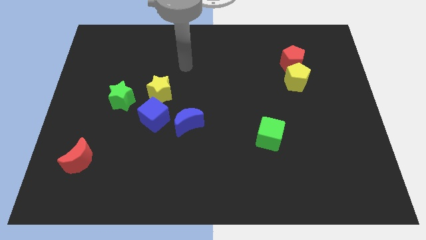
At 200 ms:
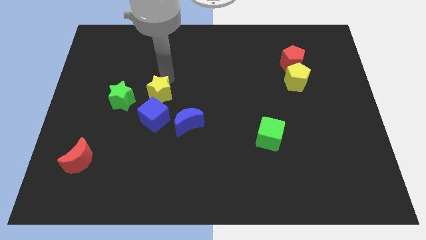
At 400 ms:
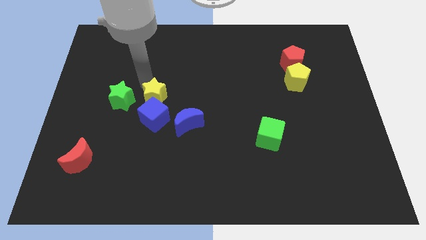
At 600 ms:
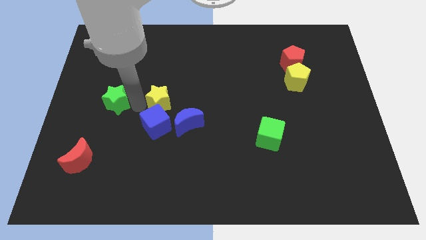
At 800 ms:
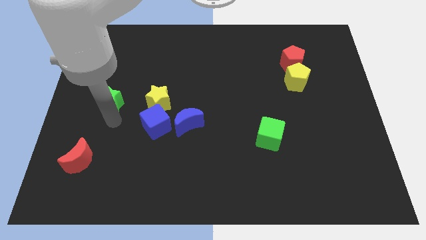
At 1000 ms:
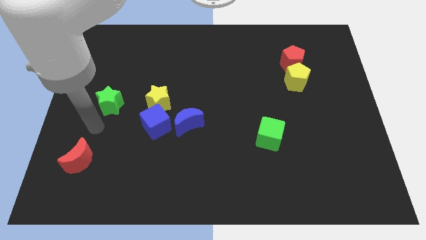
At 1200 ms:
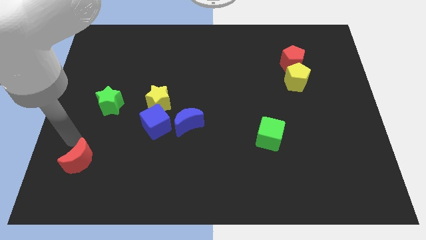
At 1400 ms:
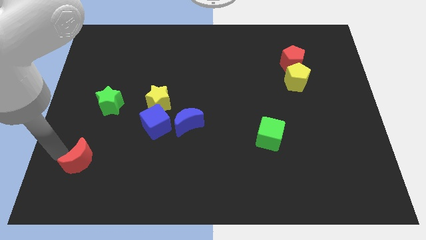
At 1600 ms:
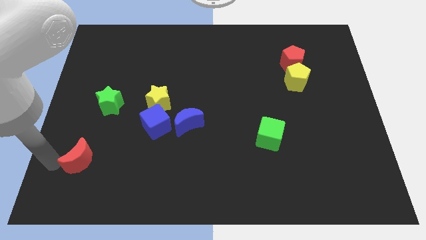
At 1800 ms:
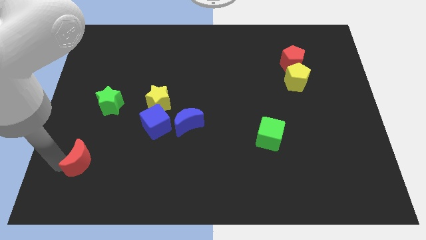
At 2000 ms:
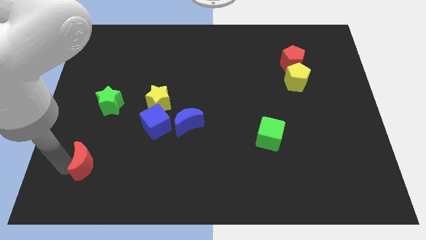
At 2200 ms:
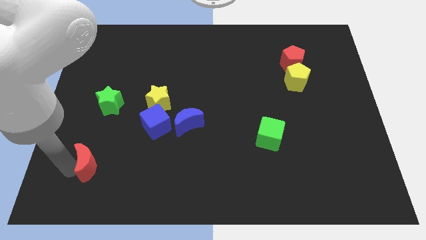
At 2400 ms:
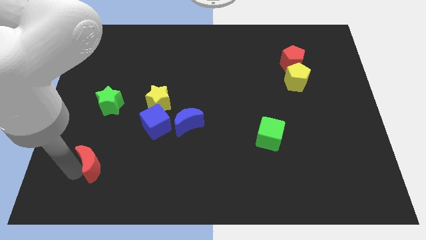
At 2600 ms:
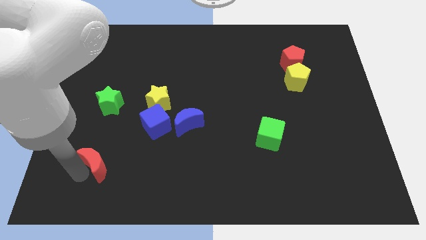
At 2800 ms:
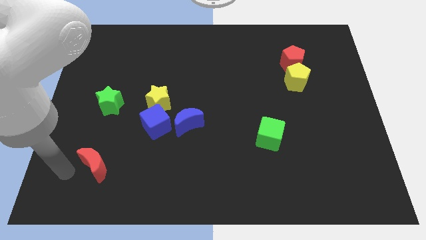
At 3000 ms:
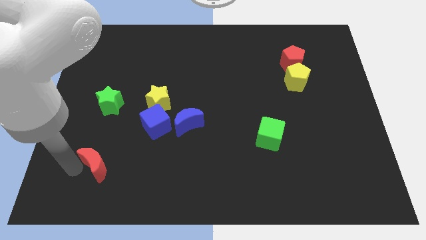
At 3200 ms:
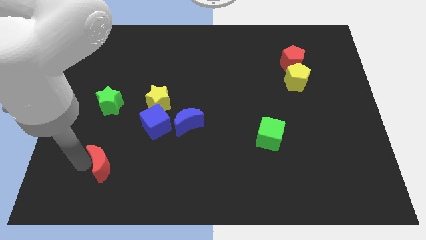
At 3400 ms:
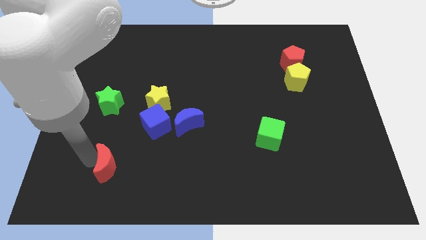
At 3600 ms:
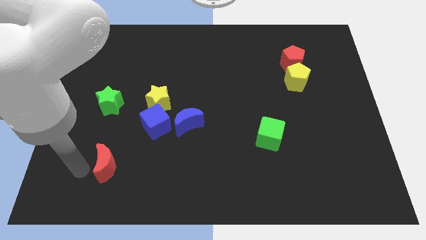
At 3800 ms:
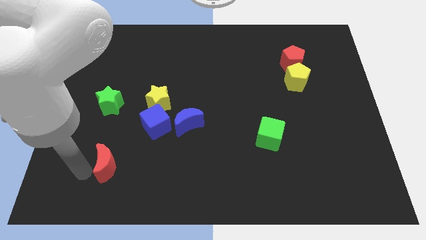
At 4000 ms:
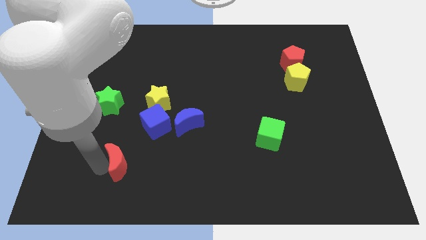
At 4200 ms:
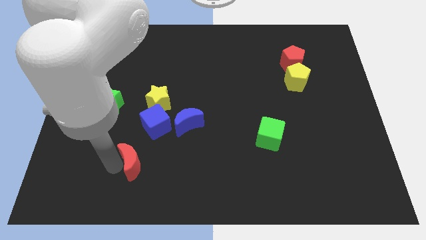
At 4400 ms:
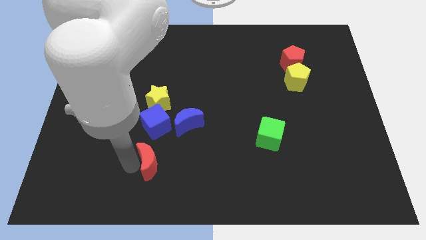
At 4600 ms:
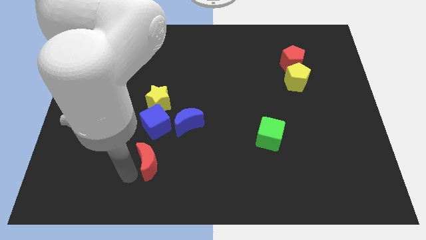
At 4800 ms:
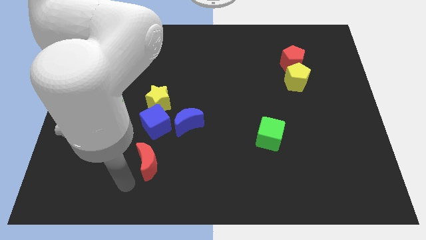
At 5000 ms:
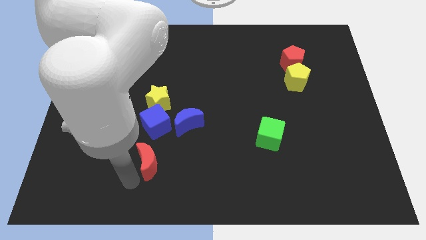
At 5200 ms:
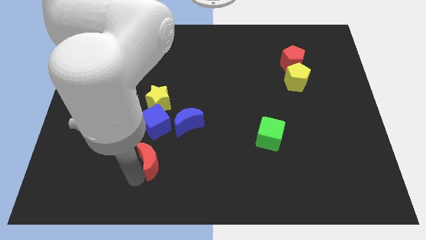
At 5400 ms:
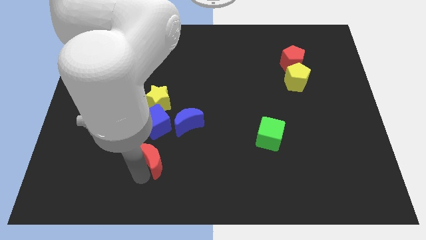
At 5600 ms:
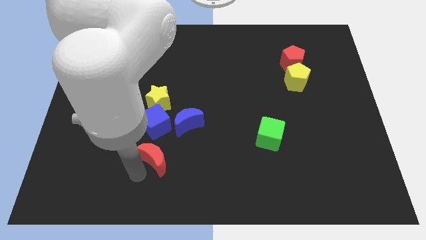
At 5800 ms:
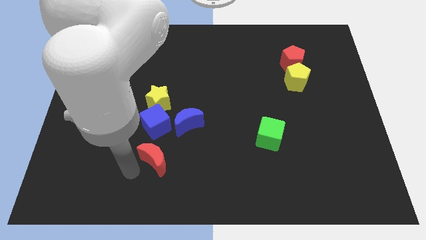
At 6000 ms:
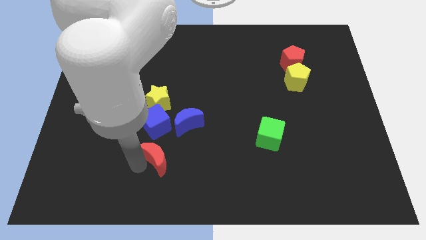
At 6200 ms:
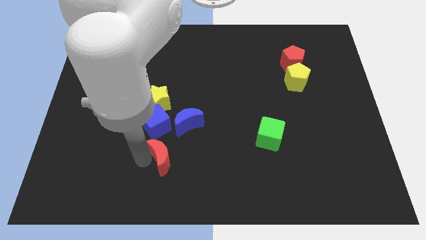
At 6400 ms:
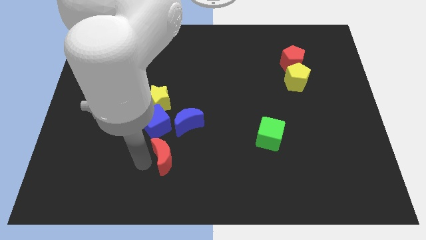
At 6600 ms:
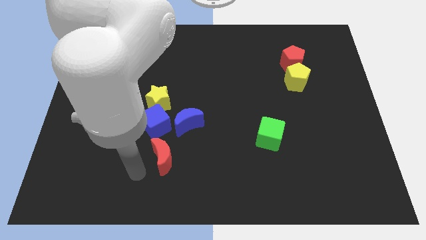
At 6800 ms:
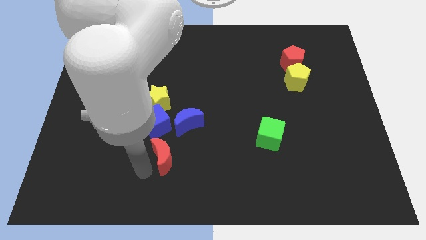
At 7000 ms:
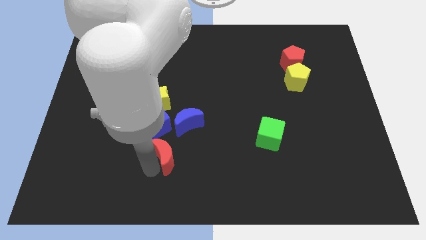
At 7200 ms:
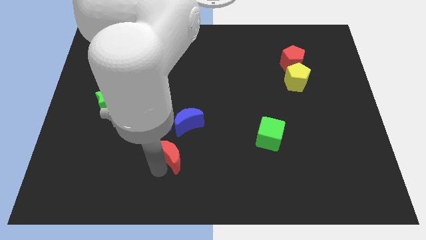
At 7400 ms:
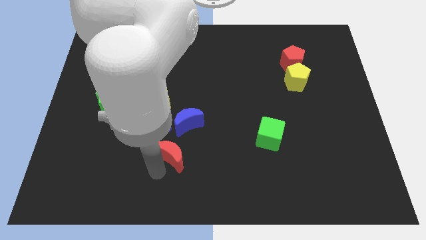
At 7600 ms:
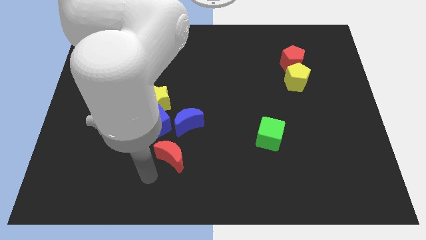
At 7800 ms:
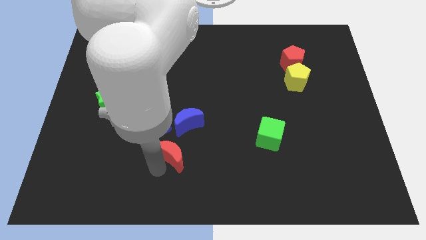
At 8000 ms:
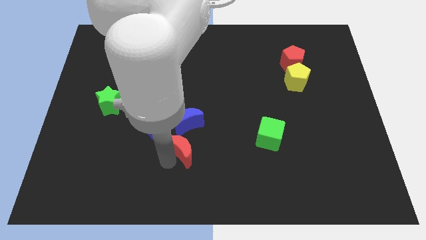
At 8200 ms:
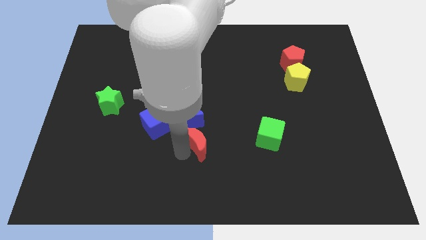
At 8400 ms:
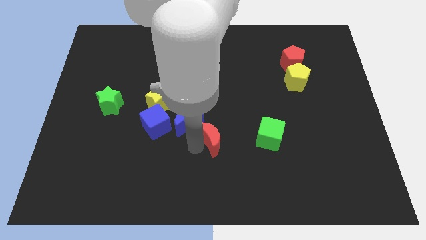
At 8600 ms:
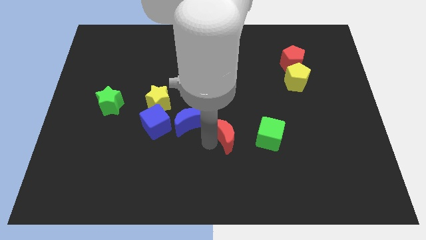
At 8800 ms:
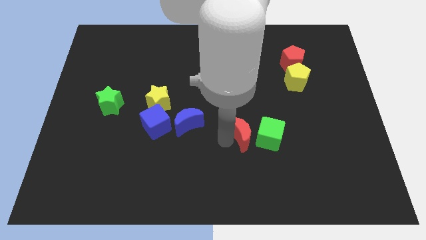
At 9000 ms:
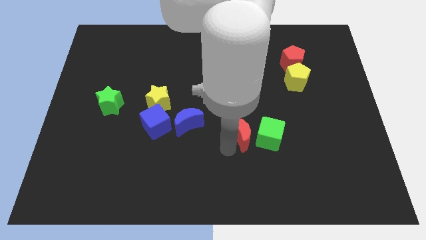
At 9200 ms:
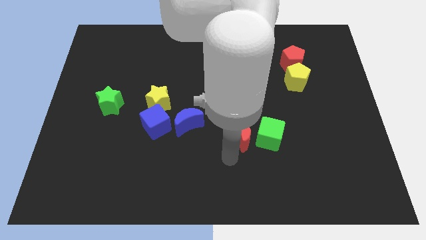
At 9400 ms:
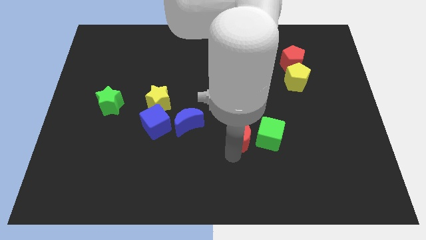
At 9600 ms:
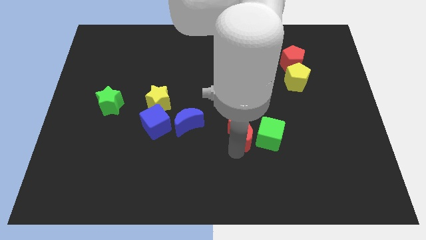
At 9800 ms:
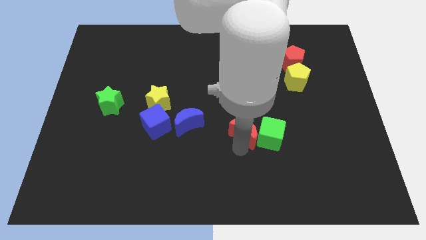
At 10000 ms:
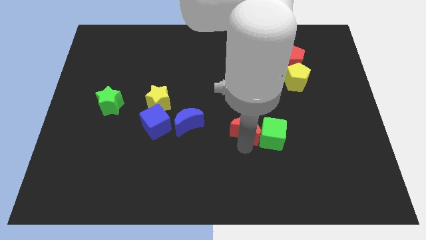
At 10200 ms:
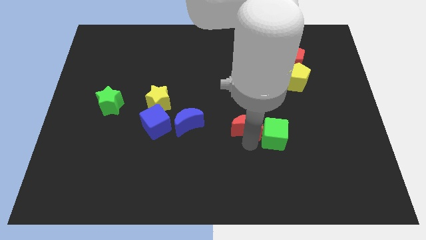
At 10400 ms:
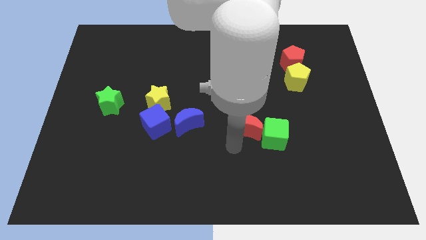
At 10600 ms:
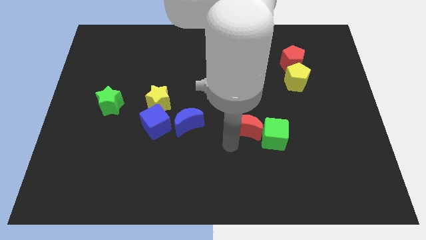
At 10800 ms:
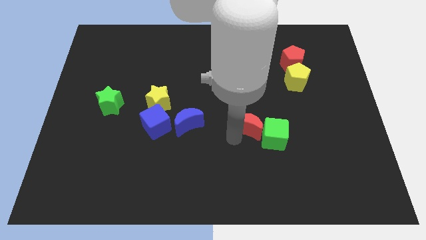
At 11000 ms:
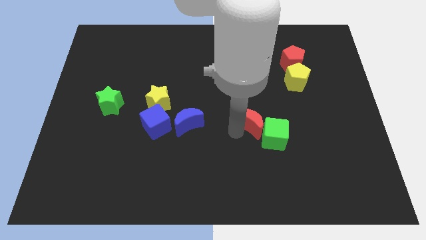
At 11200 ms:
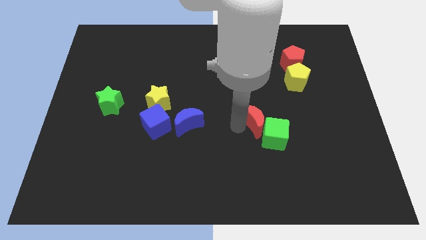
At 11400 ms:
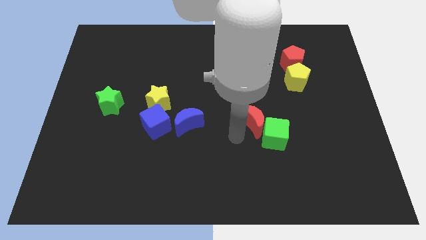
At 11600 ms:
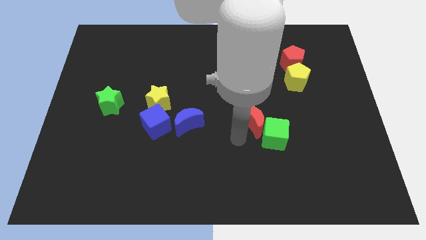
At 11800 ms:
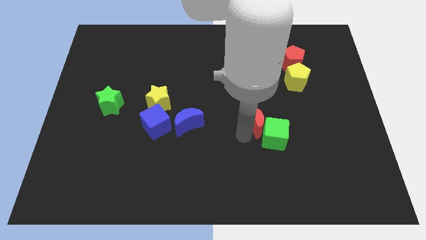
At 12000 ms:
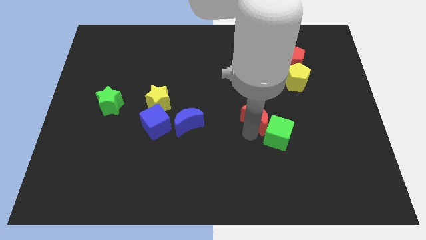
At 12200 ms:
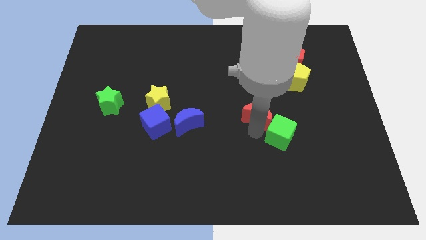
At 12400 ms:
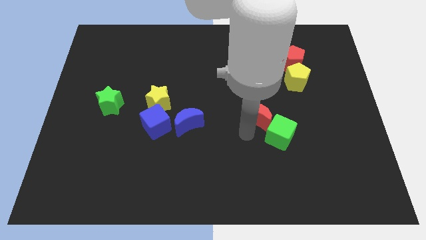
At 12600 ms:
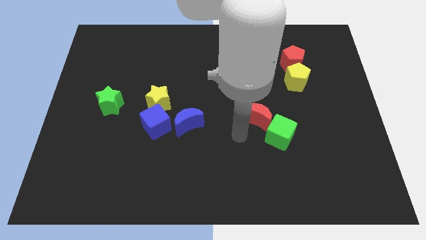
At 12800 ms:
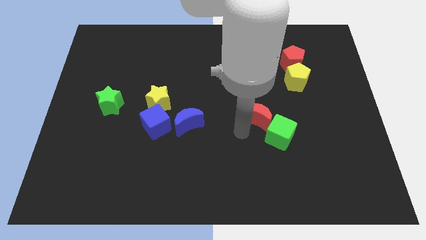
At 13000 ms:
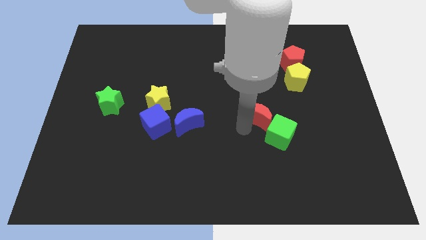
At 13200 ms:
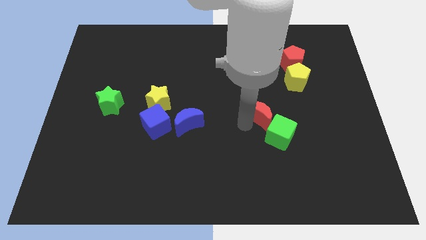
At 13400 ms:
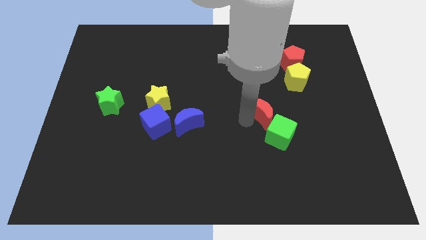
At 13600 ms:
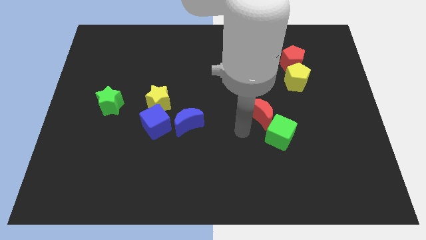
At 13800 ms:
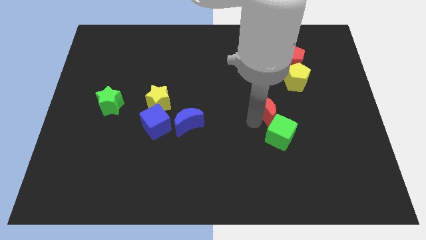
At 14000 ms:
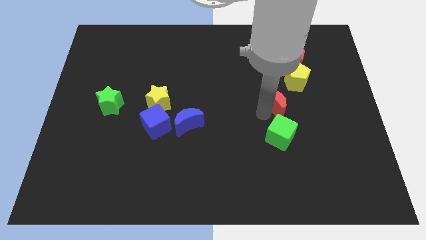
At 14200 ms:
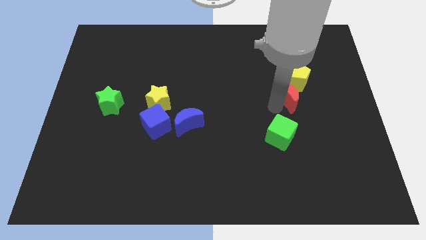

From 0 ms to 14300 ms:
put the red moon next to the yellow pentagon

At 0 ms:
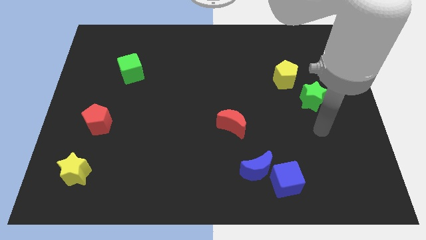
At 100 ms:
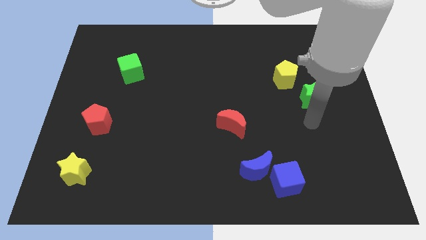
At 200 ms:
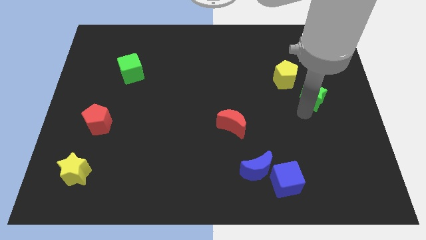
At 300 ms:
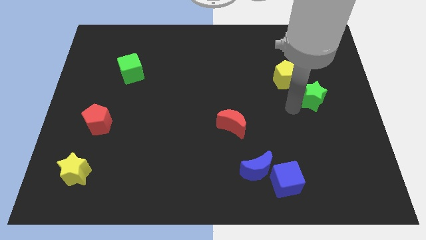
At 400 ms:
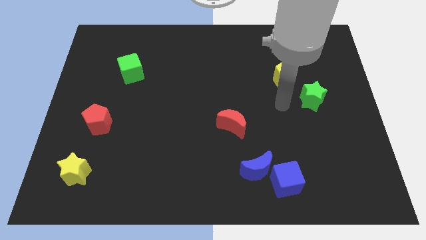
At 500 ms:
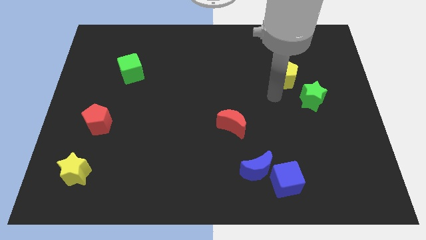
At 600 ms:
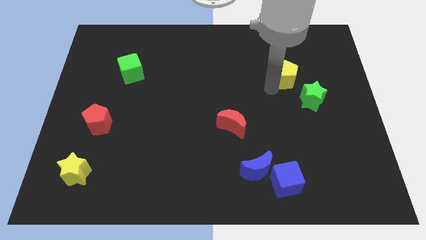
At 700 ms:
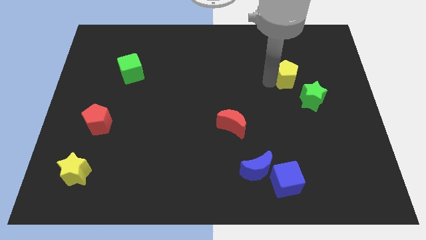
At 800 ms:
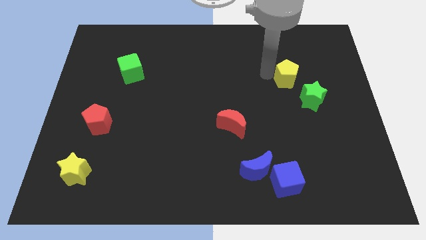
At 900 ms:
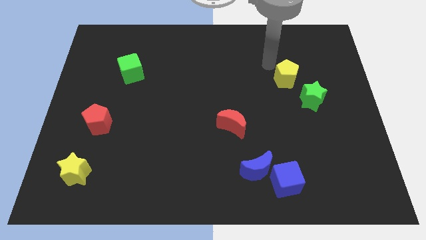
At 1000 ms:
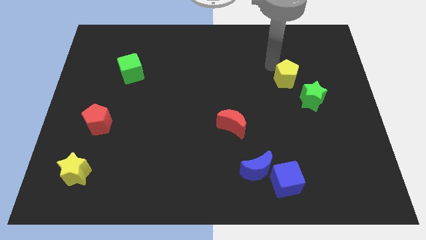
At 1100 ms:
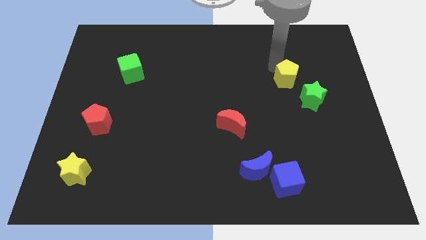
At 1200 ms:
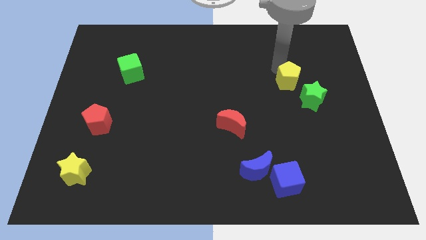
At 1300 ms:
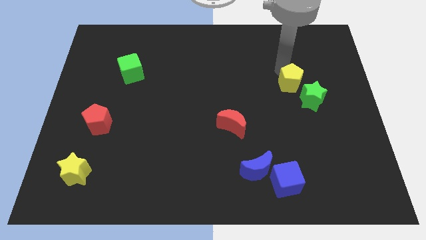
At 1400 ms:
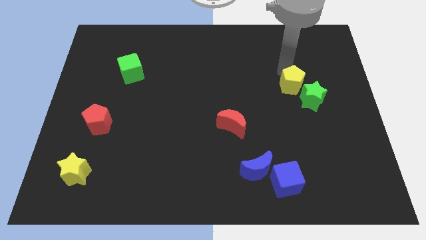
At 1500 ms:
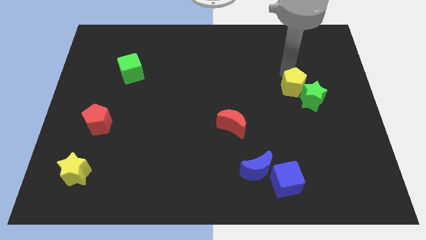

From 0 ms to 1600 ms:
push the yellow pentagon towards the green star
